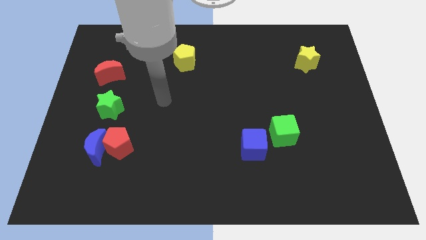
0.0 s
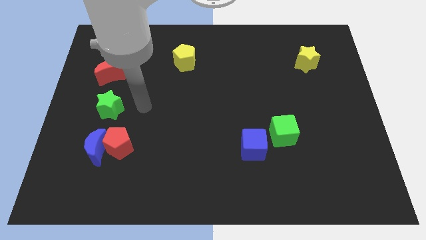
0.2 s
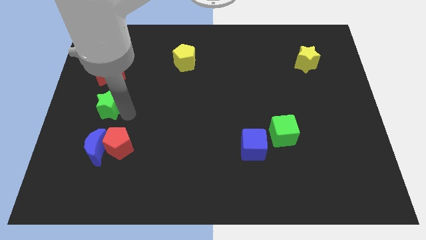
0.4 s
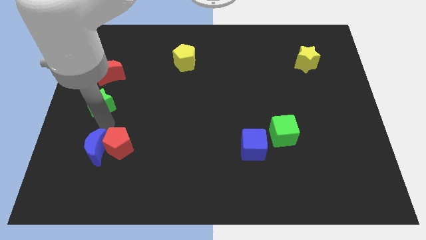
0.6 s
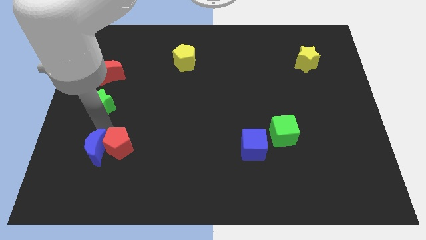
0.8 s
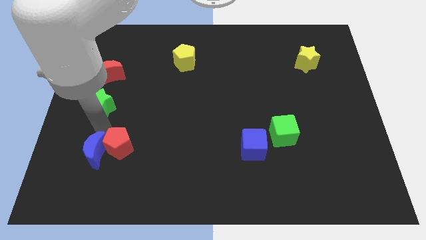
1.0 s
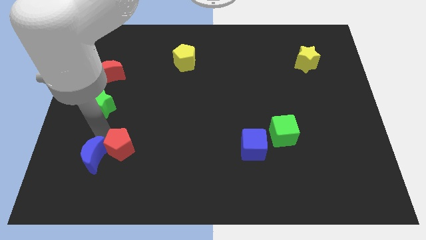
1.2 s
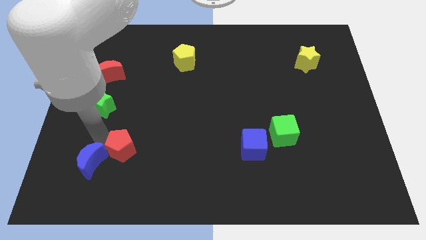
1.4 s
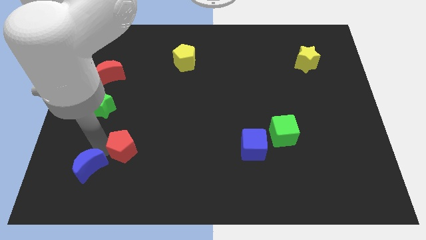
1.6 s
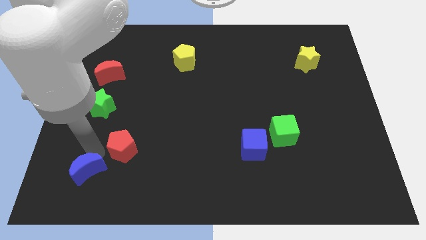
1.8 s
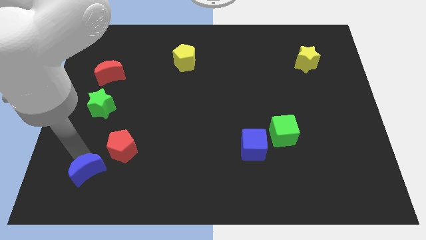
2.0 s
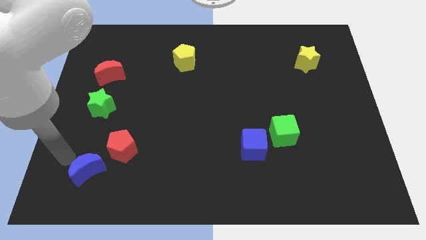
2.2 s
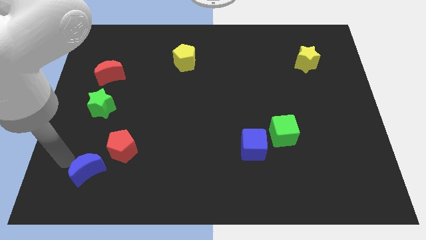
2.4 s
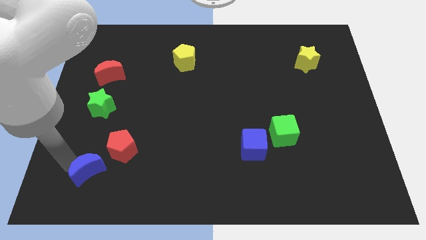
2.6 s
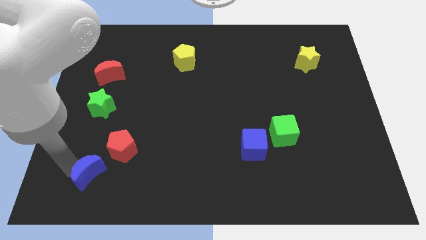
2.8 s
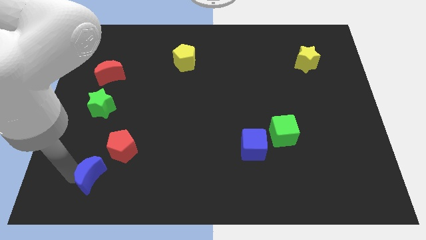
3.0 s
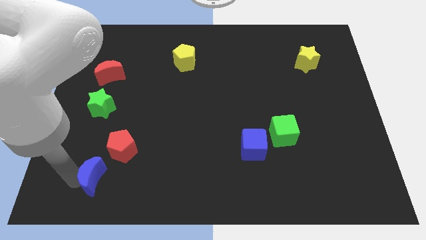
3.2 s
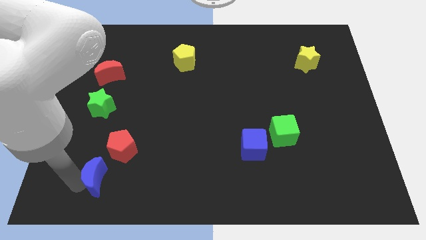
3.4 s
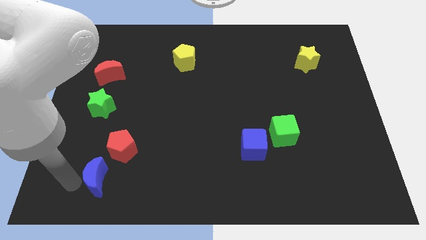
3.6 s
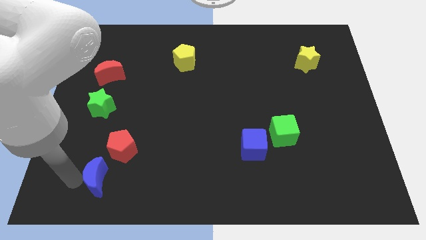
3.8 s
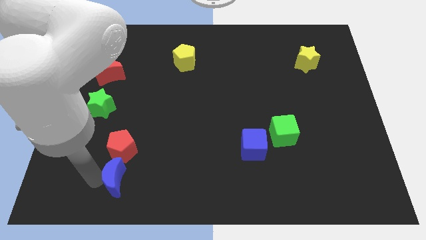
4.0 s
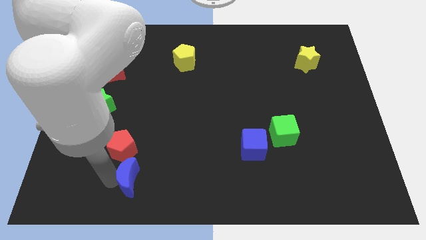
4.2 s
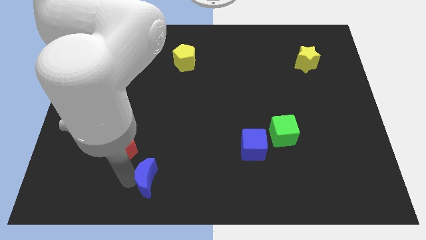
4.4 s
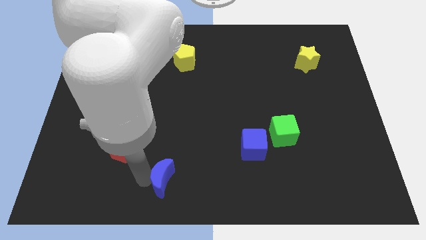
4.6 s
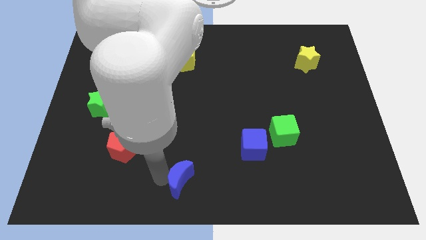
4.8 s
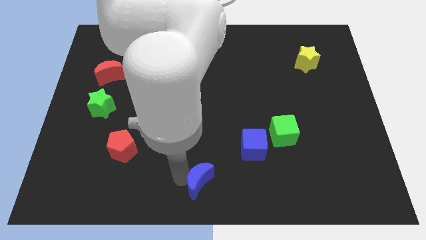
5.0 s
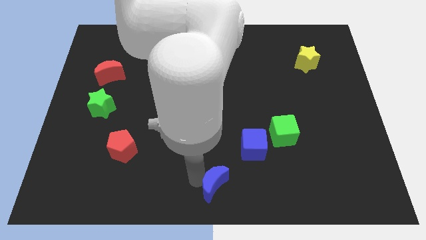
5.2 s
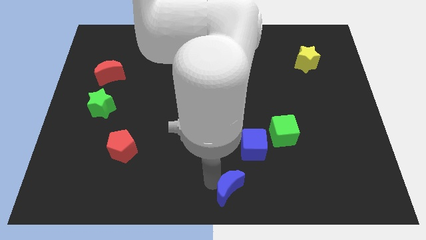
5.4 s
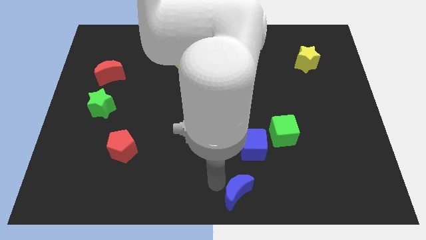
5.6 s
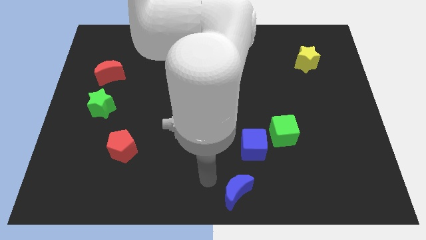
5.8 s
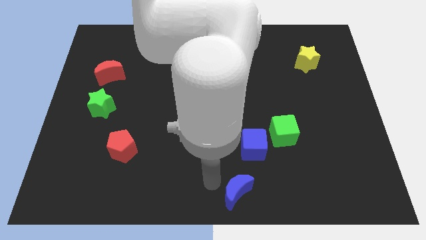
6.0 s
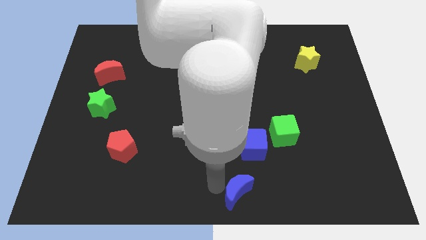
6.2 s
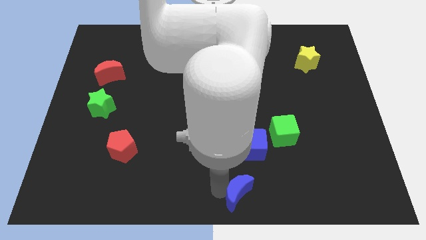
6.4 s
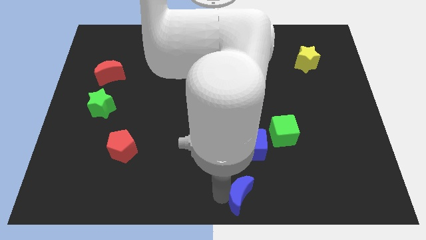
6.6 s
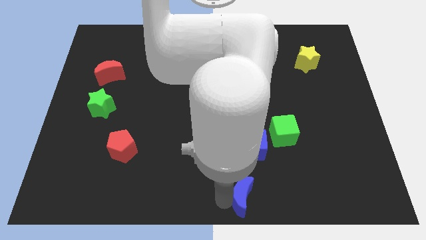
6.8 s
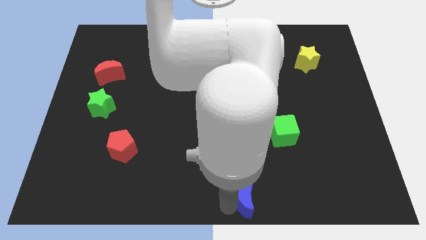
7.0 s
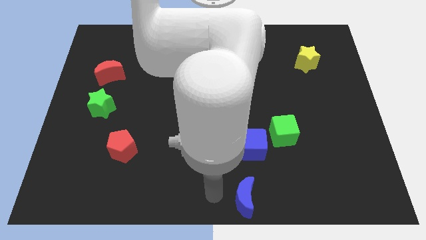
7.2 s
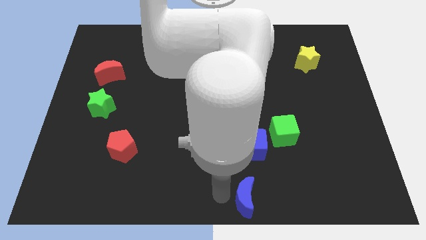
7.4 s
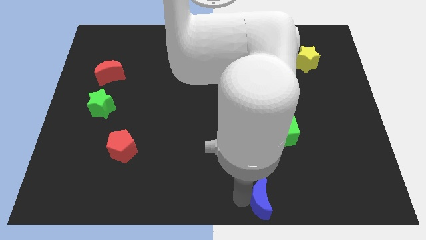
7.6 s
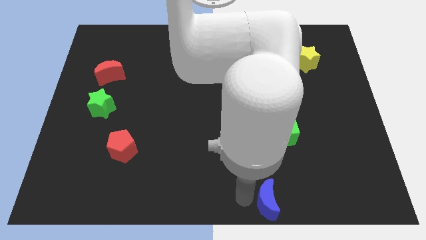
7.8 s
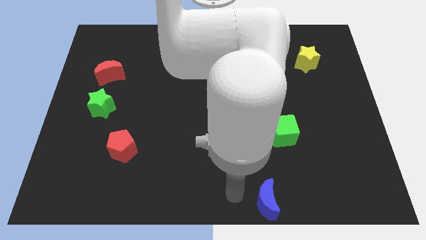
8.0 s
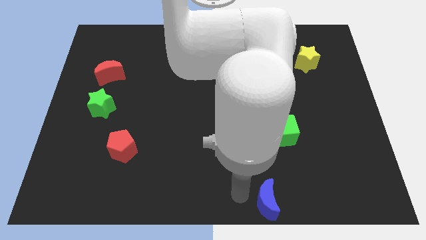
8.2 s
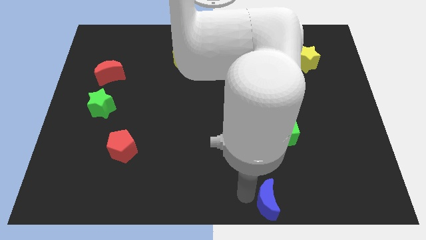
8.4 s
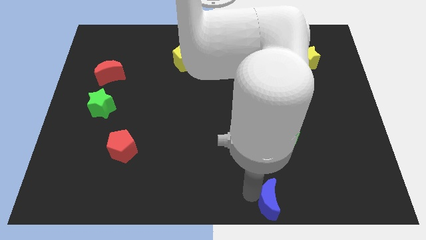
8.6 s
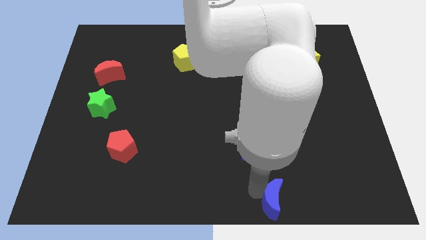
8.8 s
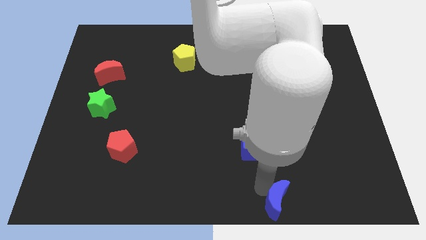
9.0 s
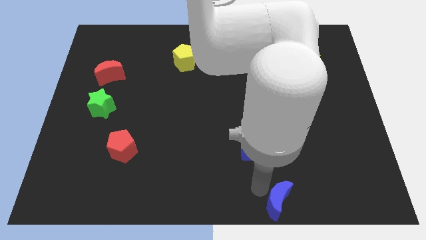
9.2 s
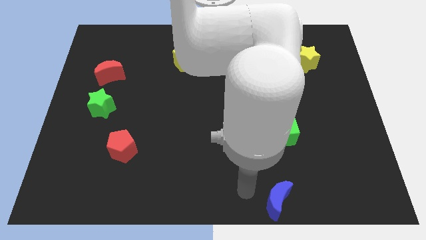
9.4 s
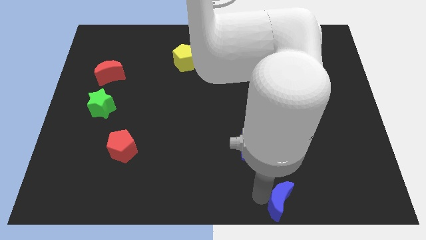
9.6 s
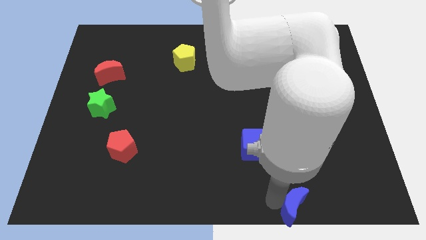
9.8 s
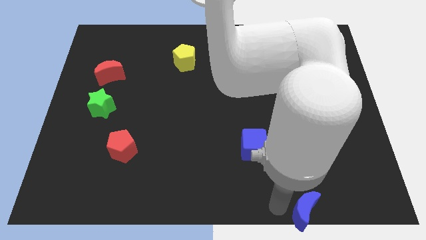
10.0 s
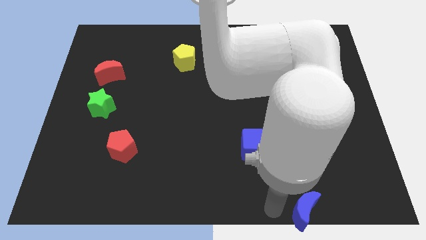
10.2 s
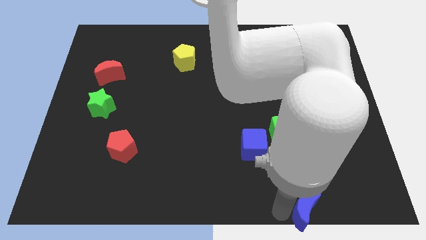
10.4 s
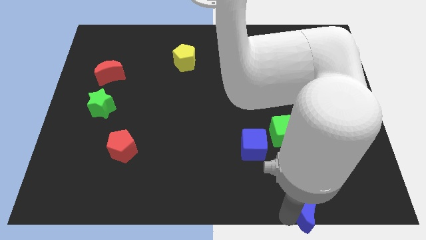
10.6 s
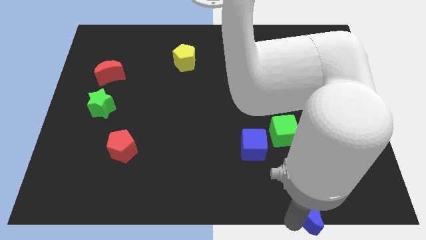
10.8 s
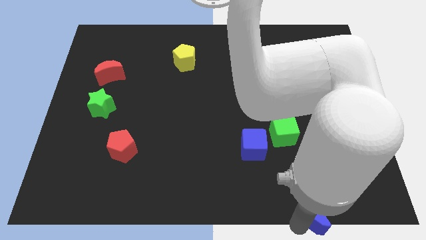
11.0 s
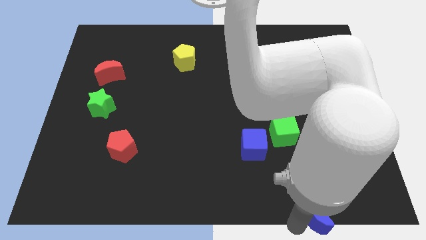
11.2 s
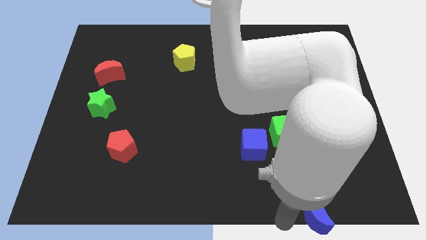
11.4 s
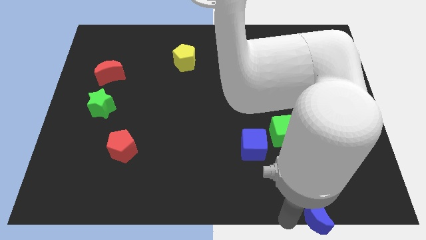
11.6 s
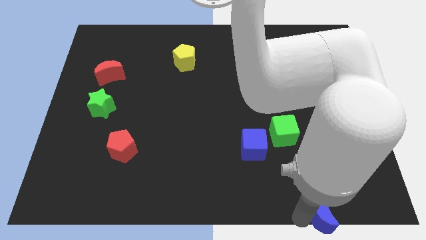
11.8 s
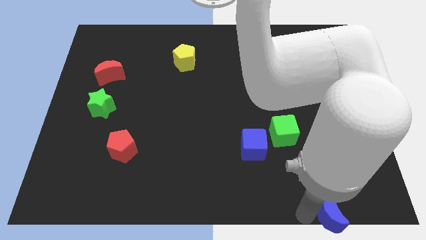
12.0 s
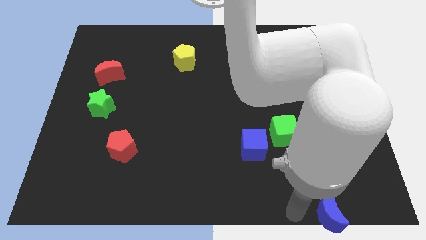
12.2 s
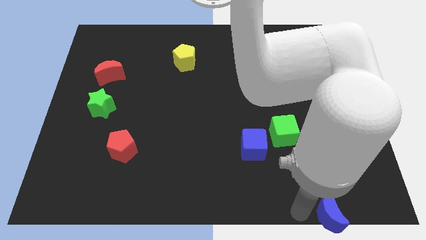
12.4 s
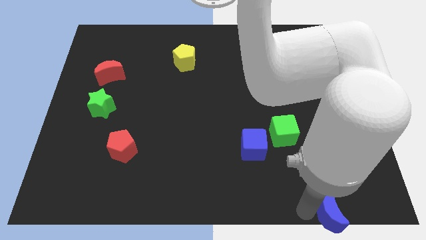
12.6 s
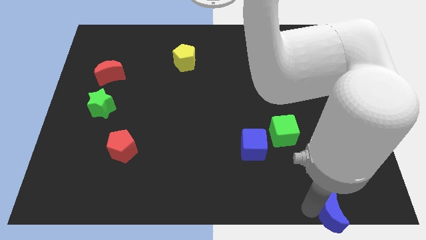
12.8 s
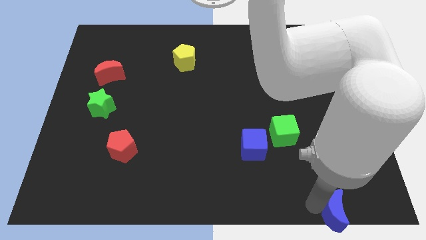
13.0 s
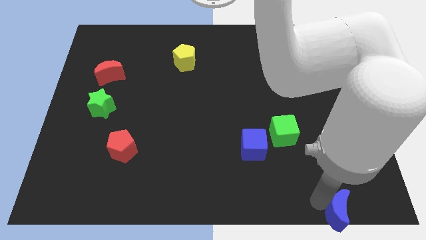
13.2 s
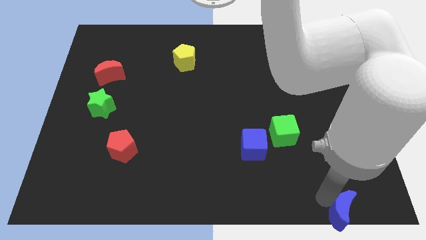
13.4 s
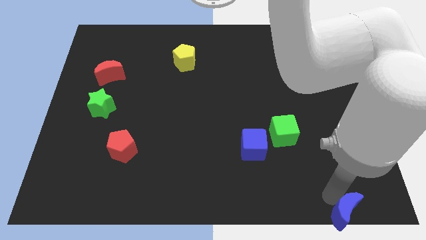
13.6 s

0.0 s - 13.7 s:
slide the blue moon to the lower right corner

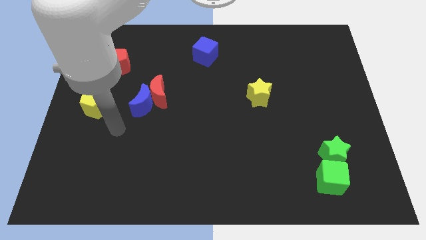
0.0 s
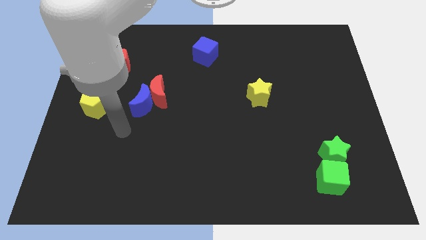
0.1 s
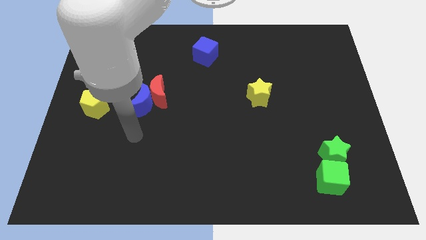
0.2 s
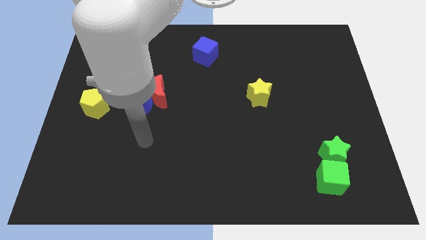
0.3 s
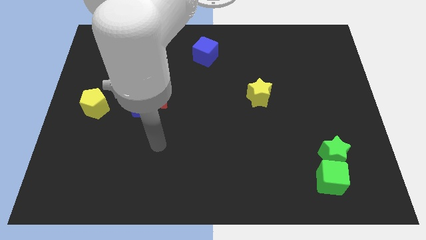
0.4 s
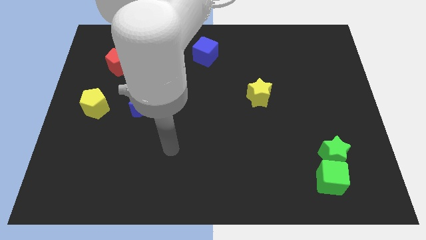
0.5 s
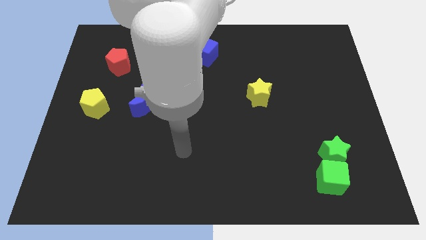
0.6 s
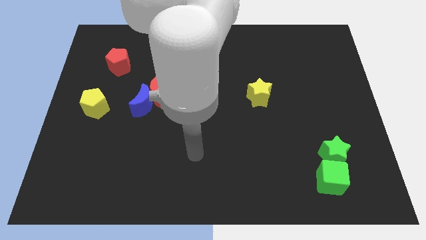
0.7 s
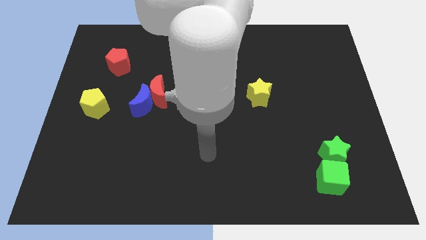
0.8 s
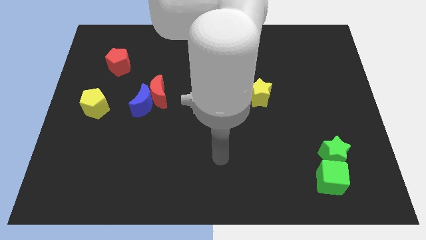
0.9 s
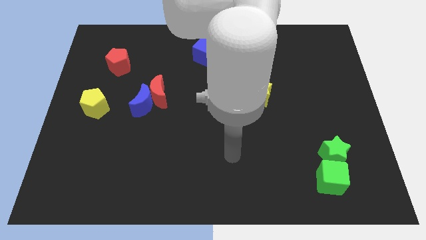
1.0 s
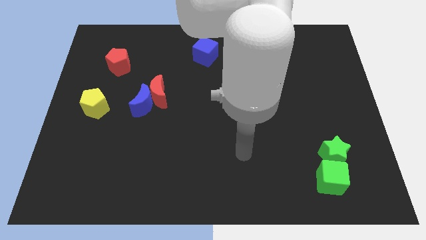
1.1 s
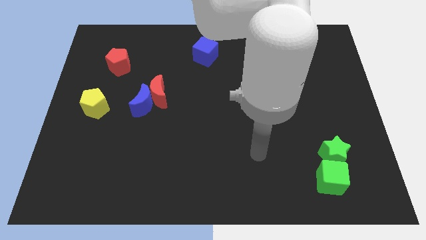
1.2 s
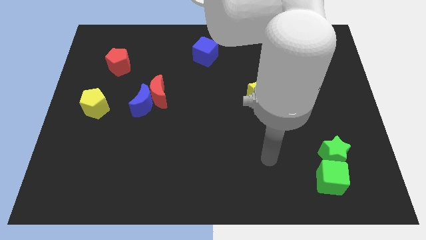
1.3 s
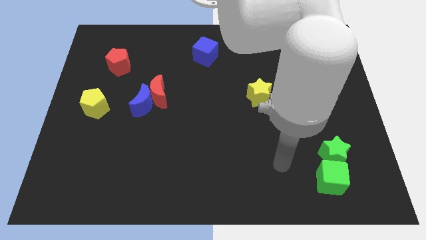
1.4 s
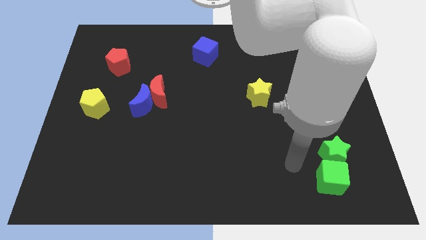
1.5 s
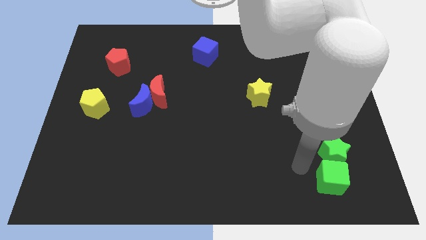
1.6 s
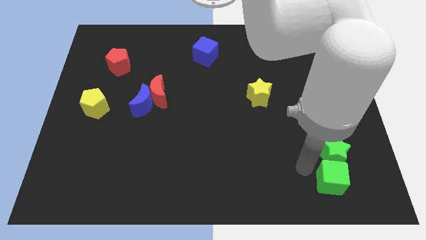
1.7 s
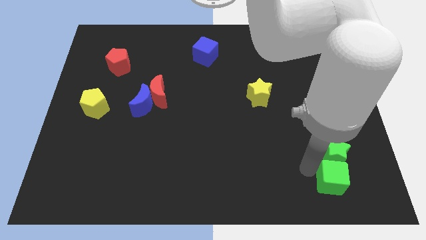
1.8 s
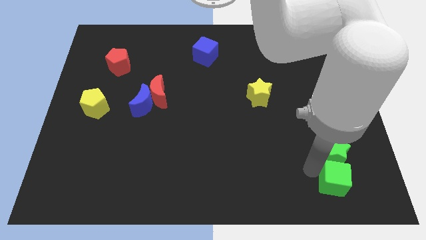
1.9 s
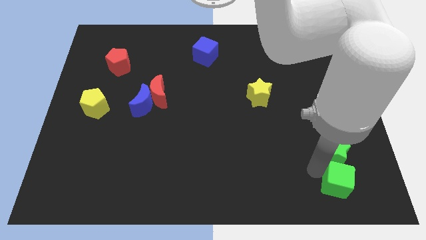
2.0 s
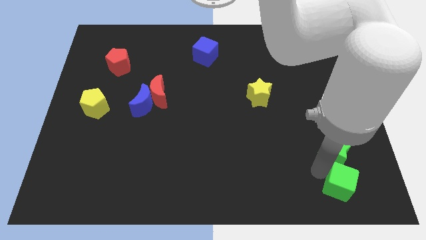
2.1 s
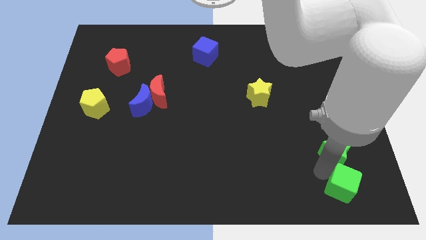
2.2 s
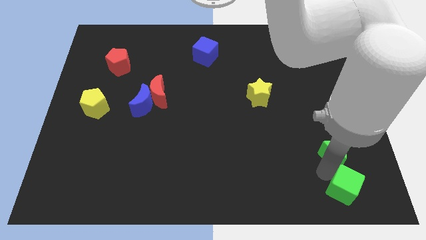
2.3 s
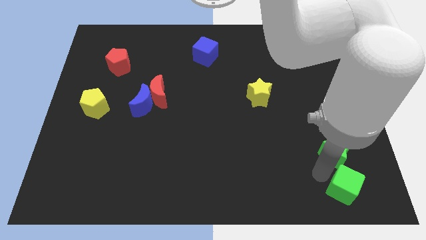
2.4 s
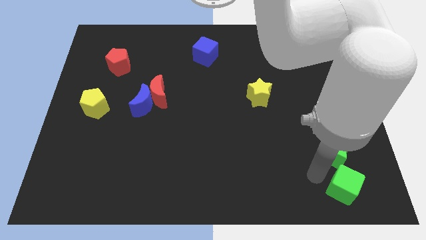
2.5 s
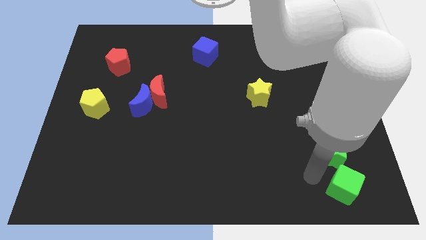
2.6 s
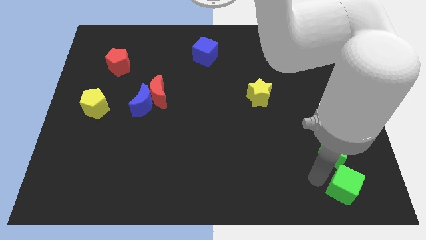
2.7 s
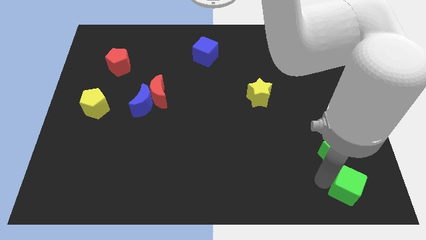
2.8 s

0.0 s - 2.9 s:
move the green cube to the bottom right
